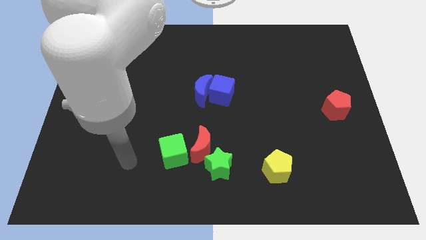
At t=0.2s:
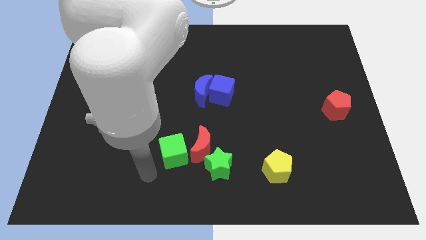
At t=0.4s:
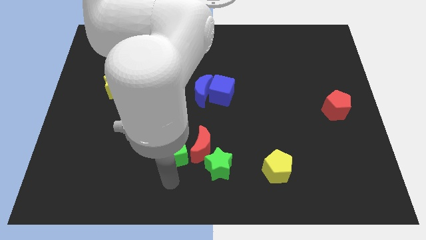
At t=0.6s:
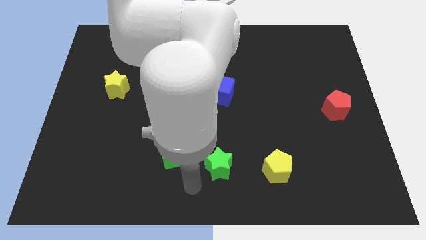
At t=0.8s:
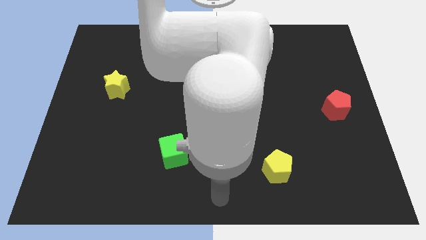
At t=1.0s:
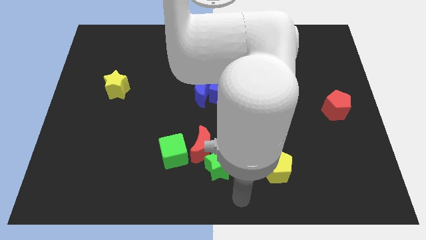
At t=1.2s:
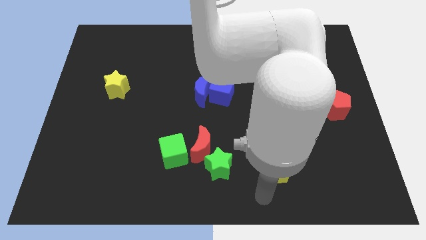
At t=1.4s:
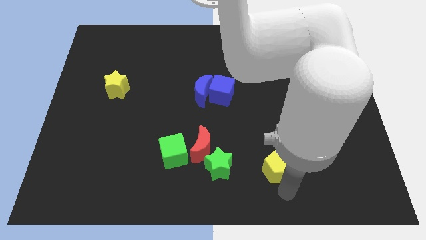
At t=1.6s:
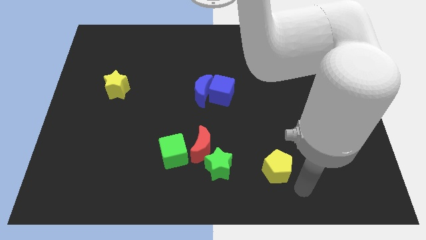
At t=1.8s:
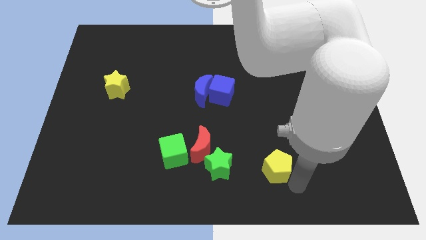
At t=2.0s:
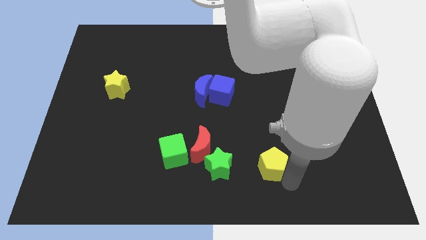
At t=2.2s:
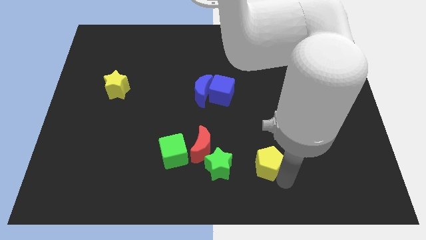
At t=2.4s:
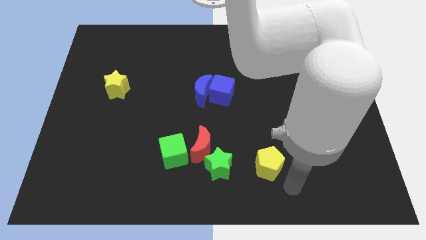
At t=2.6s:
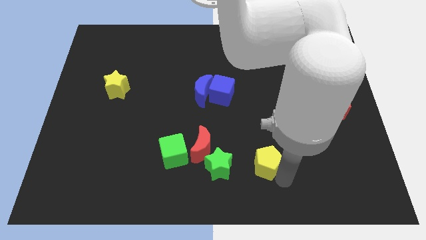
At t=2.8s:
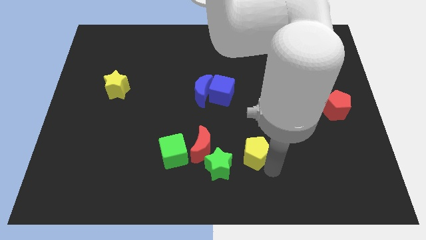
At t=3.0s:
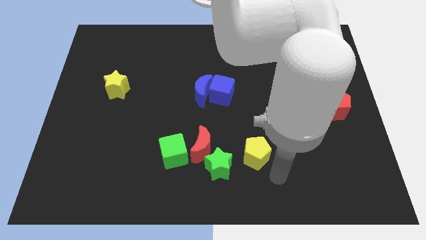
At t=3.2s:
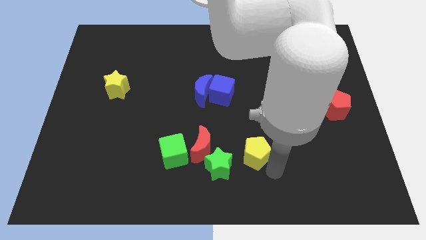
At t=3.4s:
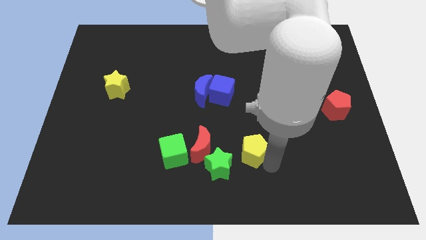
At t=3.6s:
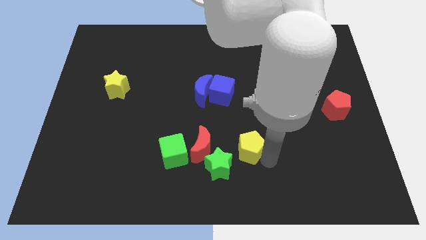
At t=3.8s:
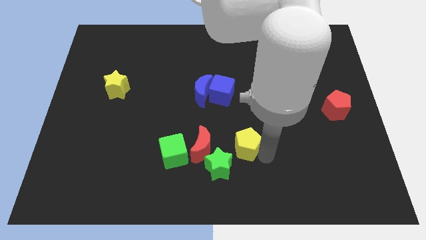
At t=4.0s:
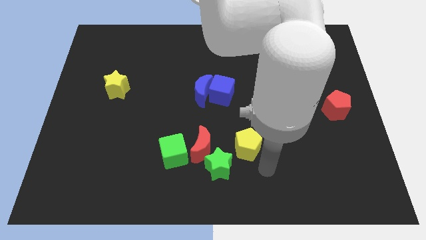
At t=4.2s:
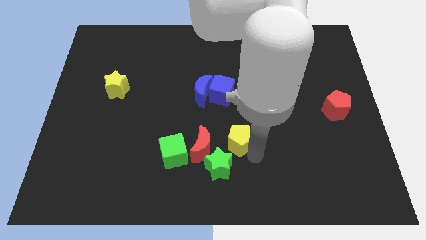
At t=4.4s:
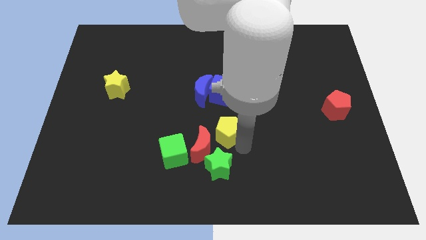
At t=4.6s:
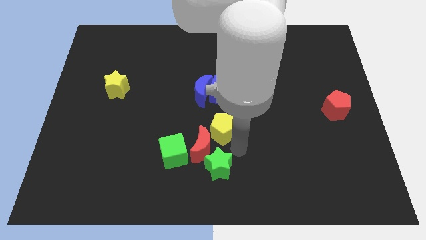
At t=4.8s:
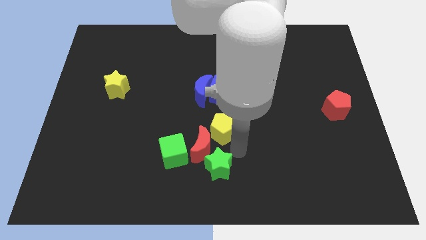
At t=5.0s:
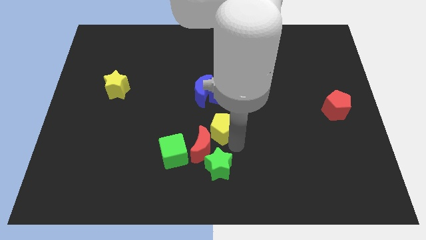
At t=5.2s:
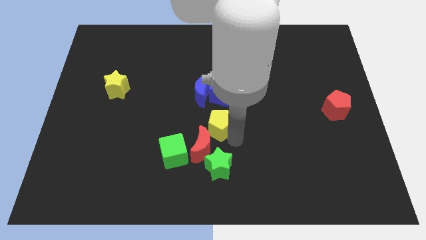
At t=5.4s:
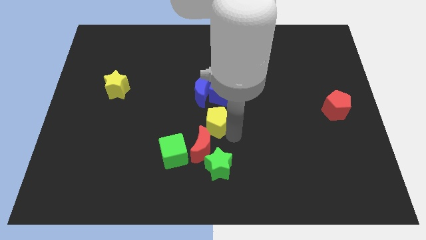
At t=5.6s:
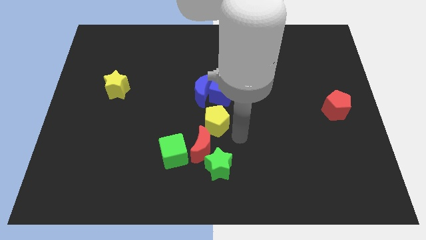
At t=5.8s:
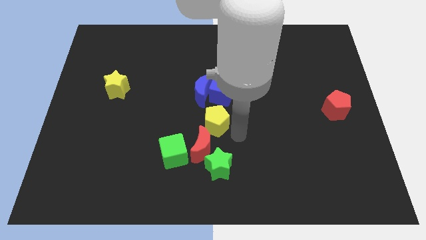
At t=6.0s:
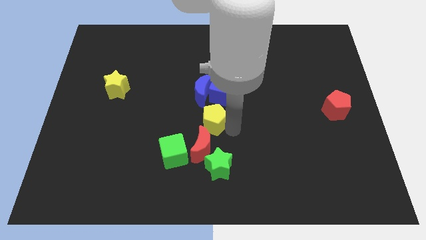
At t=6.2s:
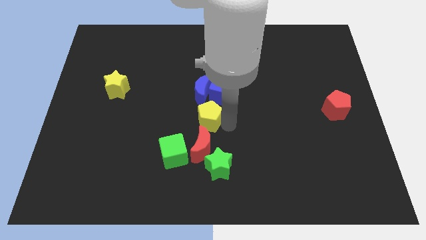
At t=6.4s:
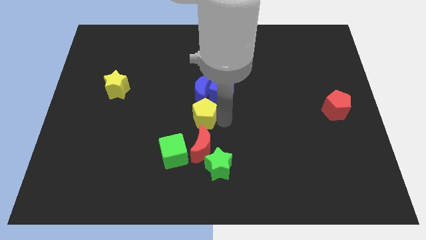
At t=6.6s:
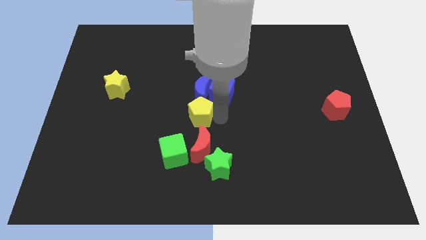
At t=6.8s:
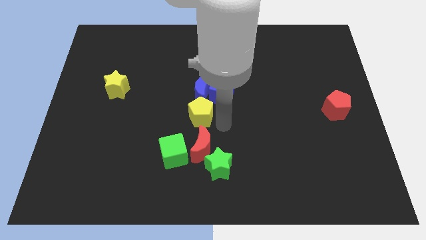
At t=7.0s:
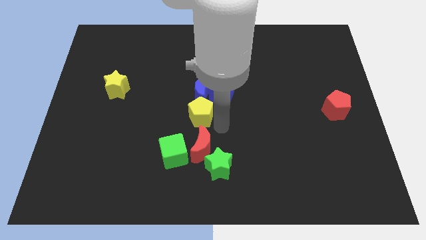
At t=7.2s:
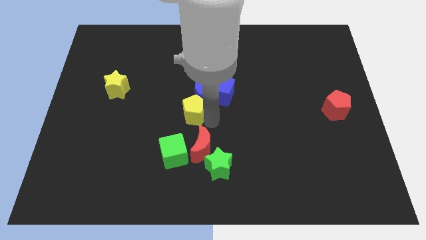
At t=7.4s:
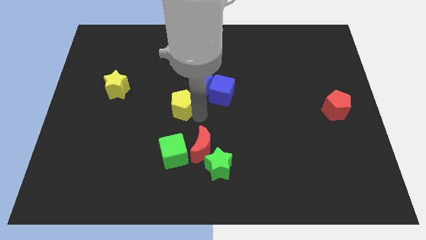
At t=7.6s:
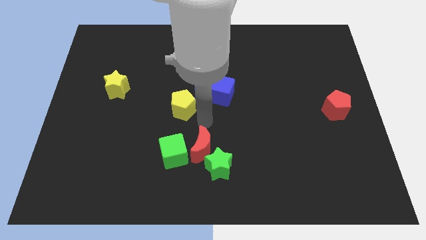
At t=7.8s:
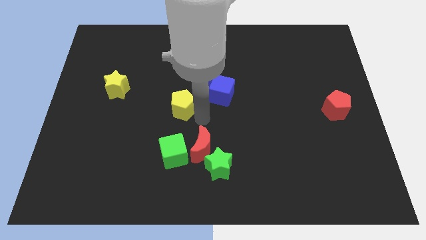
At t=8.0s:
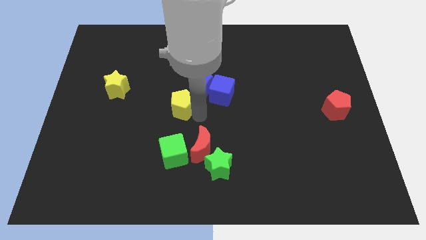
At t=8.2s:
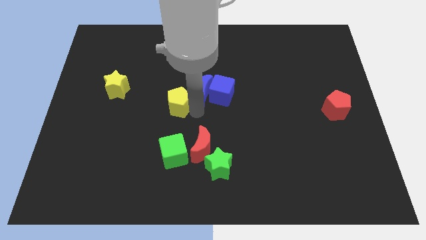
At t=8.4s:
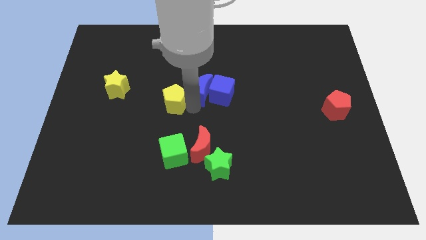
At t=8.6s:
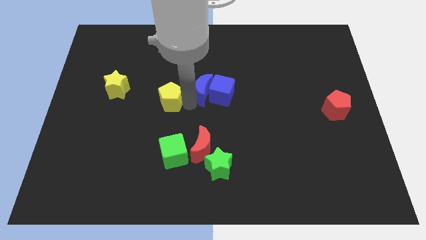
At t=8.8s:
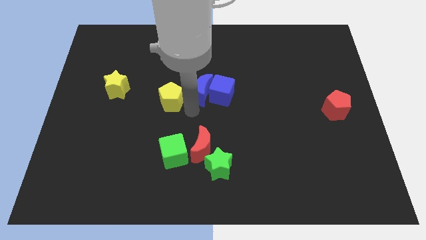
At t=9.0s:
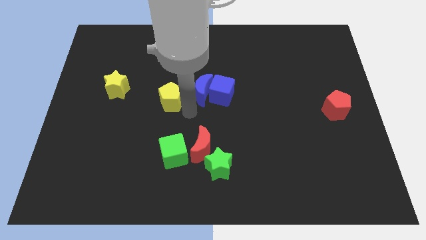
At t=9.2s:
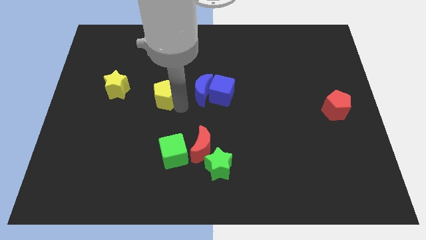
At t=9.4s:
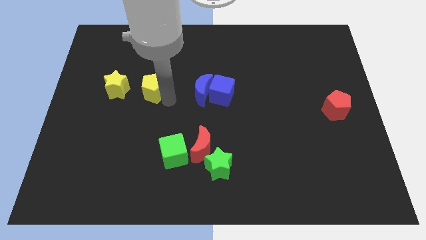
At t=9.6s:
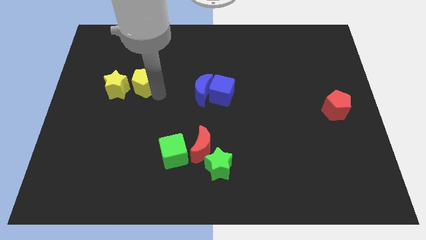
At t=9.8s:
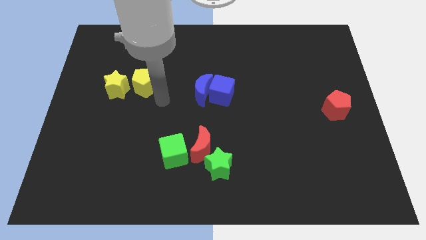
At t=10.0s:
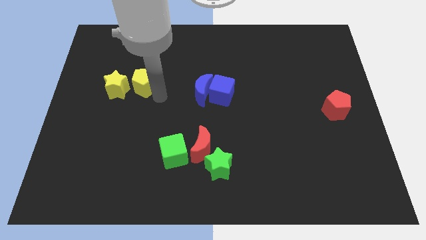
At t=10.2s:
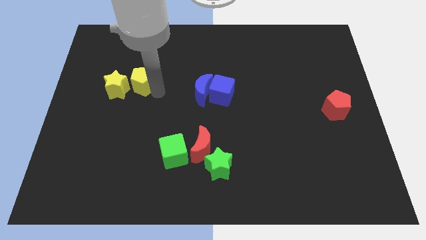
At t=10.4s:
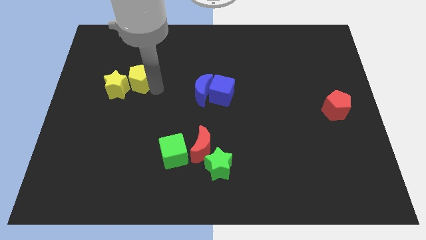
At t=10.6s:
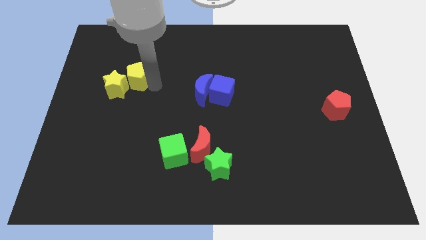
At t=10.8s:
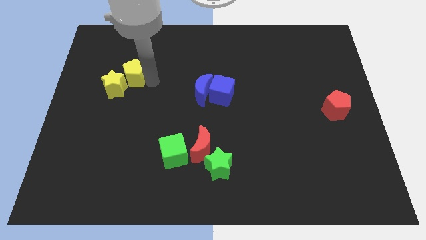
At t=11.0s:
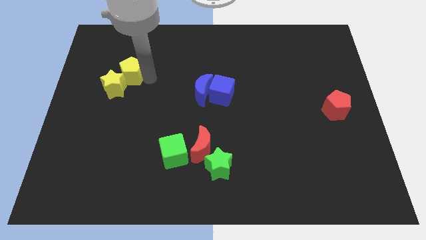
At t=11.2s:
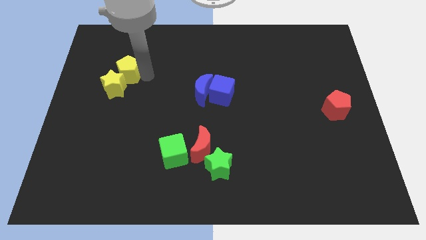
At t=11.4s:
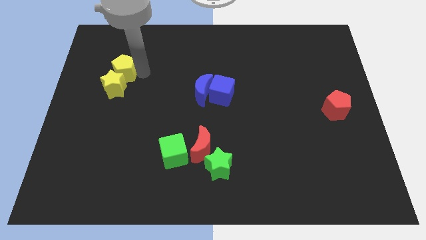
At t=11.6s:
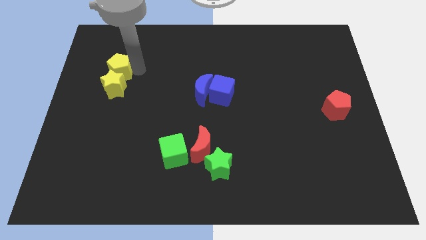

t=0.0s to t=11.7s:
push the yellow pentagon to the top left side of the yellow star
